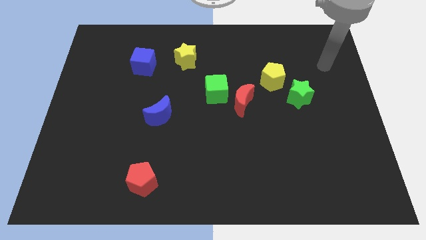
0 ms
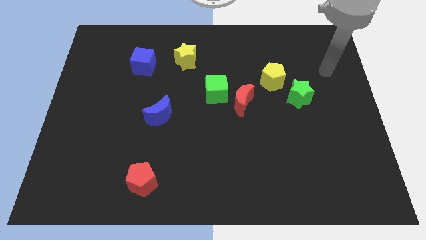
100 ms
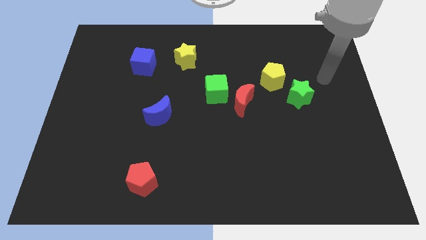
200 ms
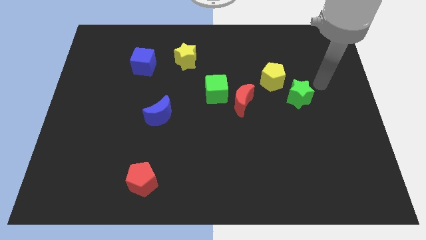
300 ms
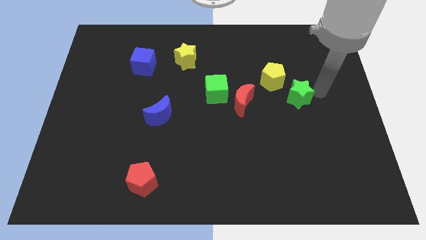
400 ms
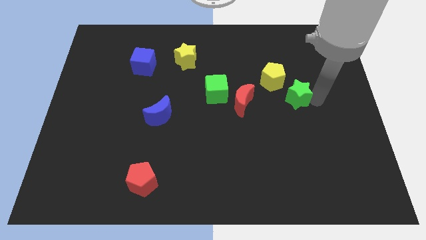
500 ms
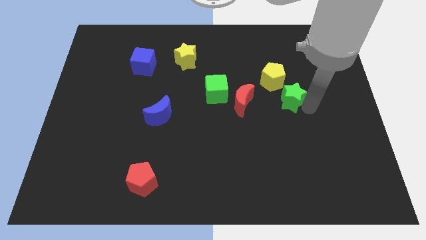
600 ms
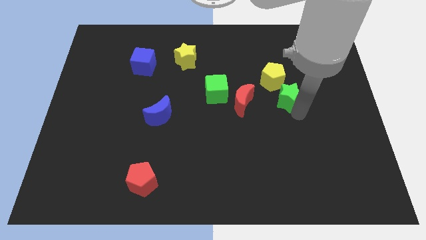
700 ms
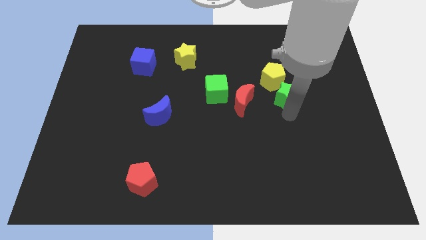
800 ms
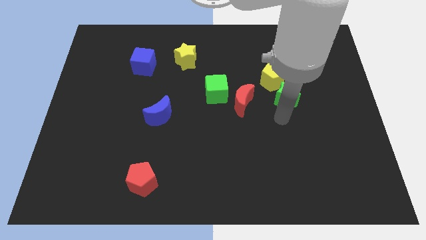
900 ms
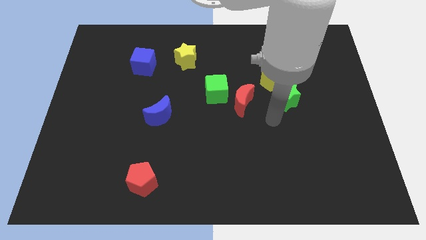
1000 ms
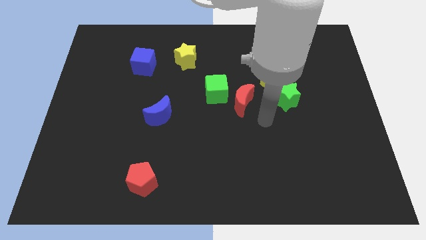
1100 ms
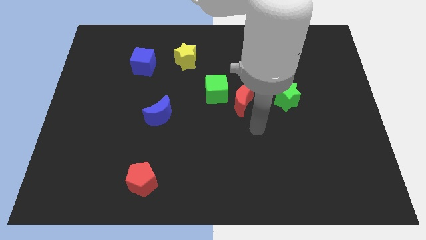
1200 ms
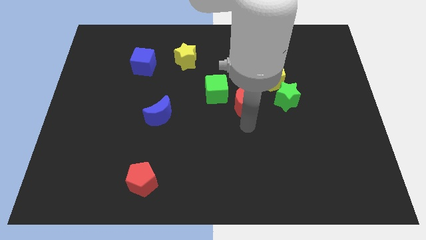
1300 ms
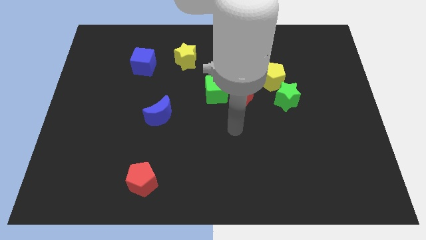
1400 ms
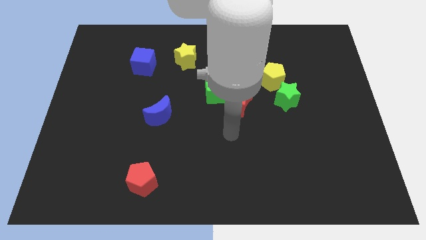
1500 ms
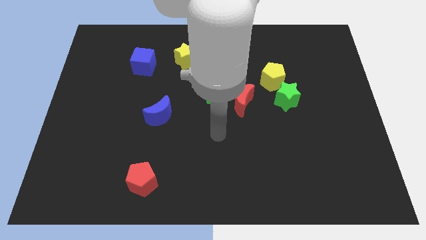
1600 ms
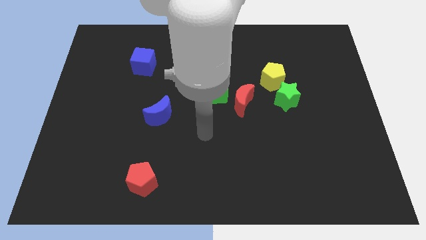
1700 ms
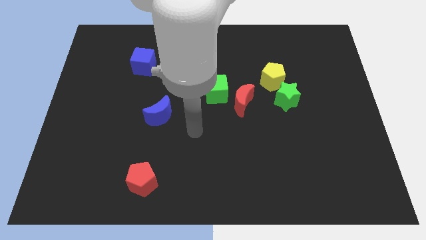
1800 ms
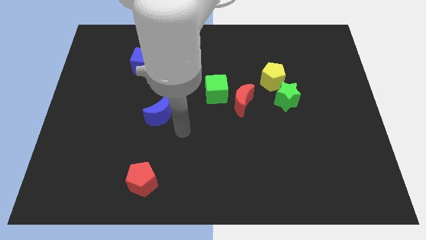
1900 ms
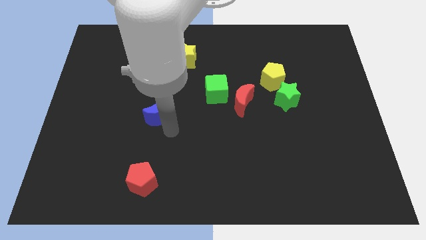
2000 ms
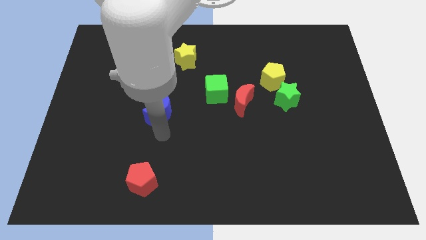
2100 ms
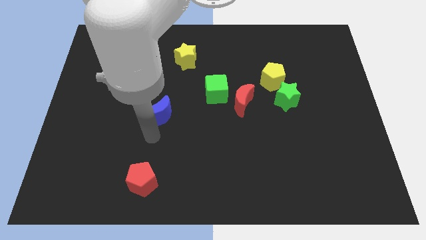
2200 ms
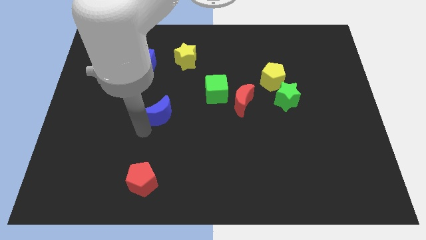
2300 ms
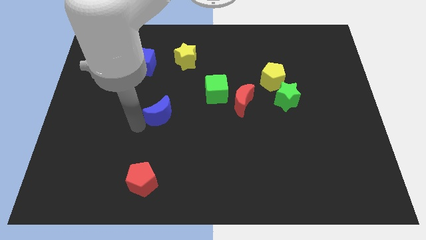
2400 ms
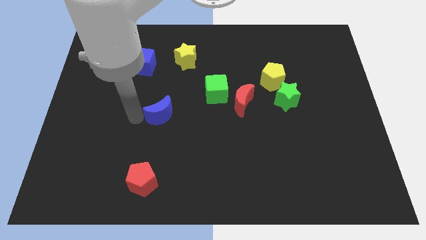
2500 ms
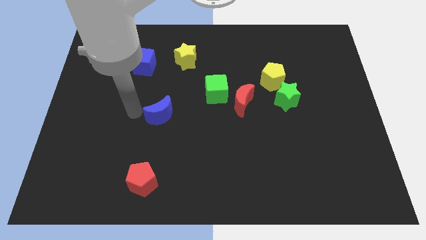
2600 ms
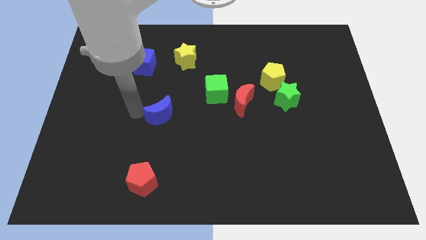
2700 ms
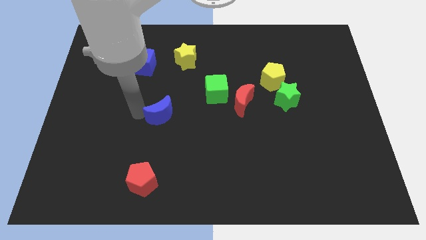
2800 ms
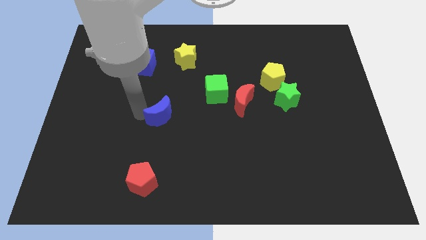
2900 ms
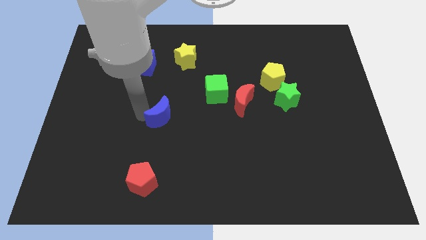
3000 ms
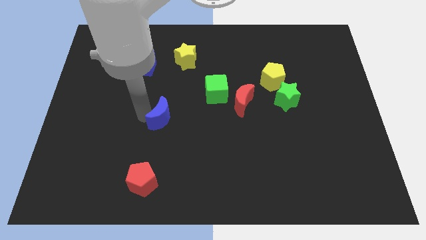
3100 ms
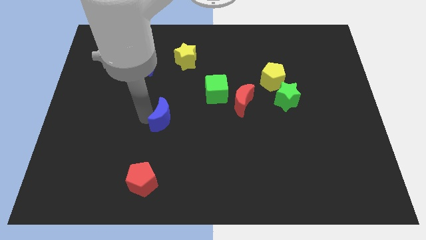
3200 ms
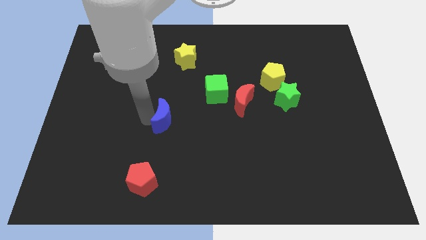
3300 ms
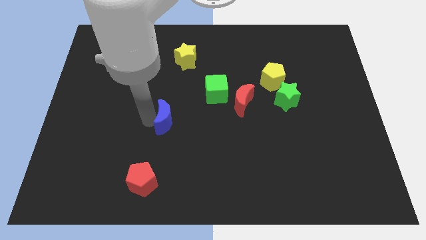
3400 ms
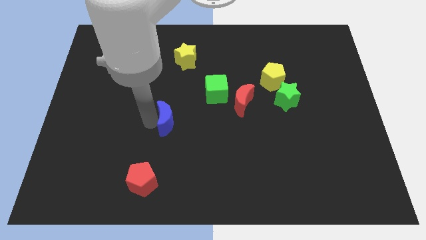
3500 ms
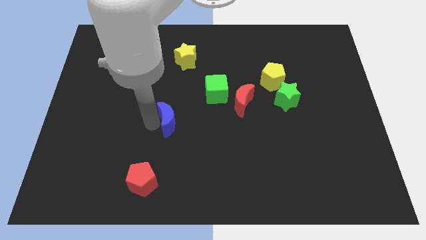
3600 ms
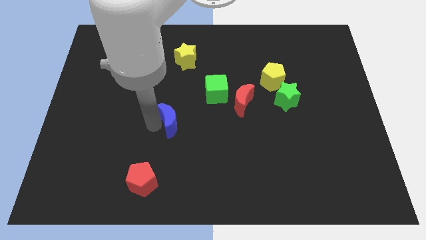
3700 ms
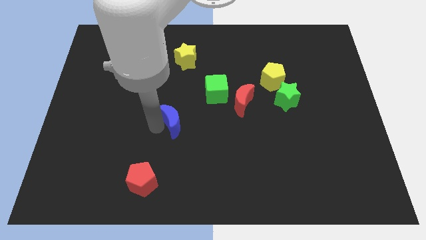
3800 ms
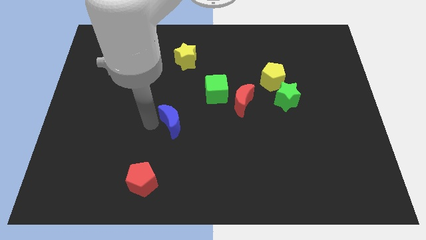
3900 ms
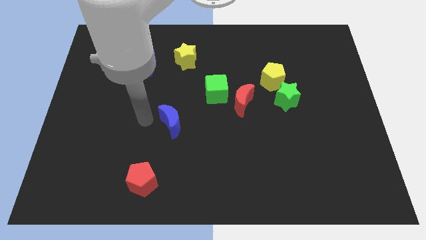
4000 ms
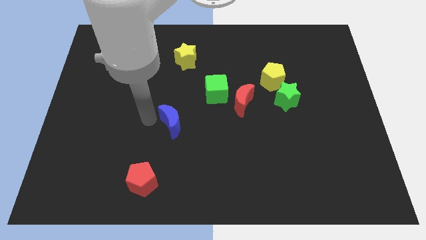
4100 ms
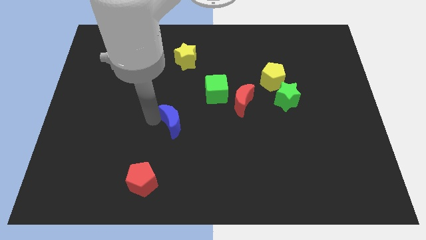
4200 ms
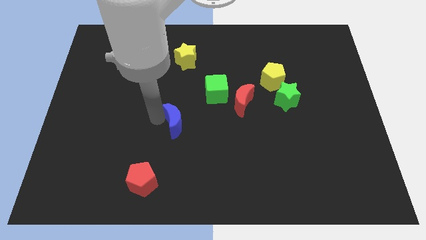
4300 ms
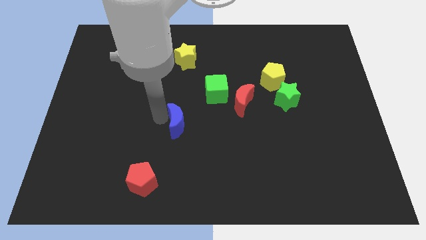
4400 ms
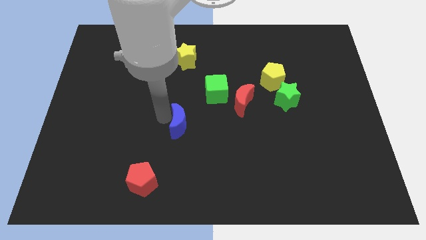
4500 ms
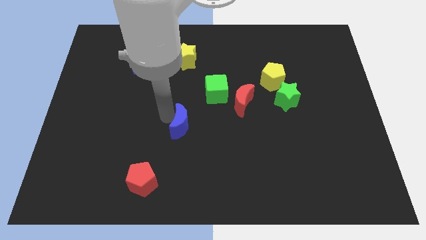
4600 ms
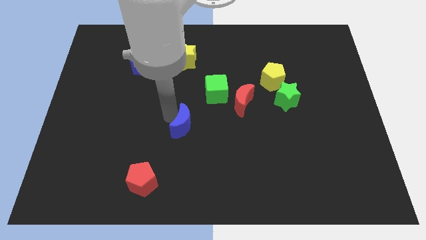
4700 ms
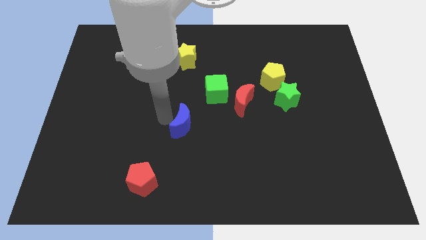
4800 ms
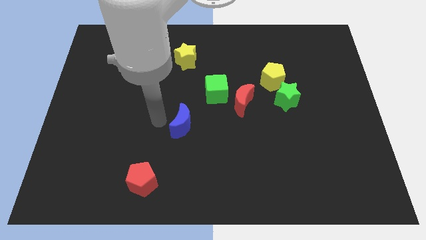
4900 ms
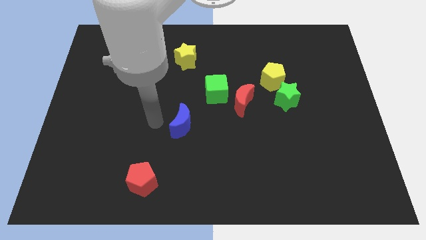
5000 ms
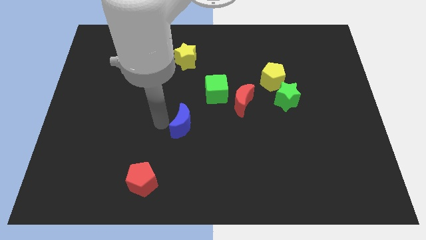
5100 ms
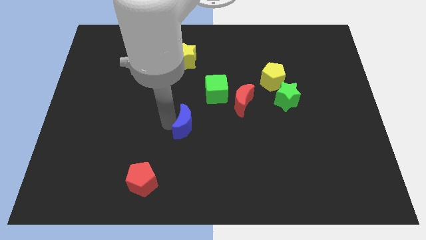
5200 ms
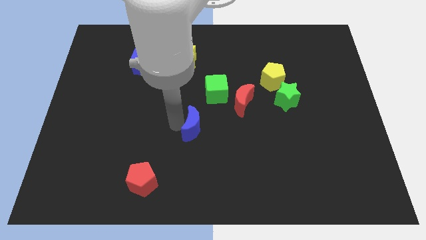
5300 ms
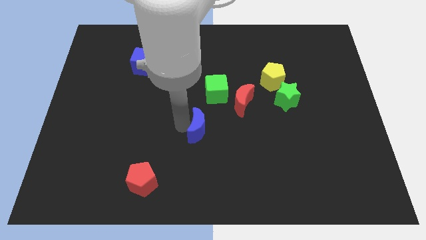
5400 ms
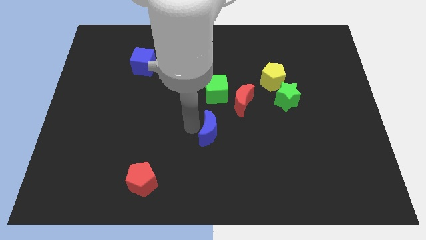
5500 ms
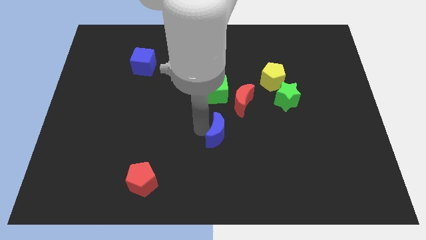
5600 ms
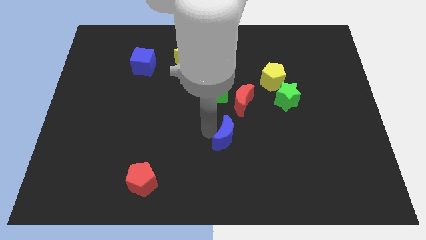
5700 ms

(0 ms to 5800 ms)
move the blue moon to the bottom side of the red moon

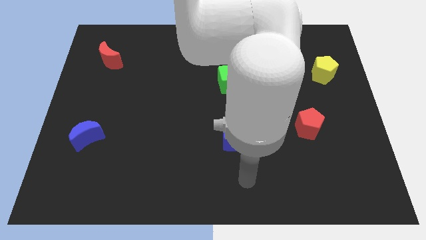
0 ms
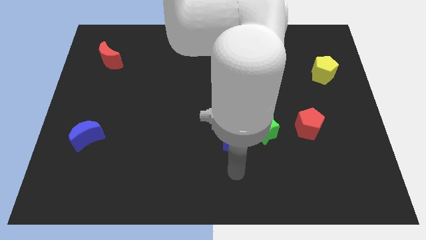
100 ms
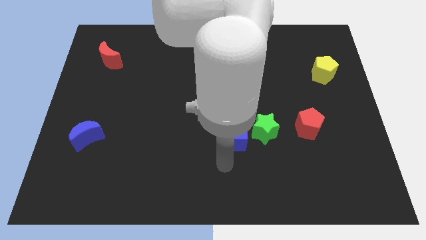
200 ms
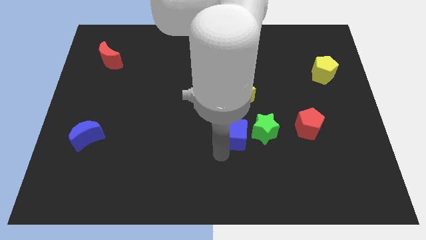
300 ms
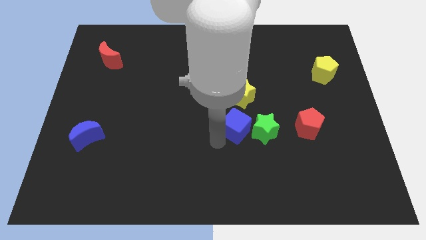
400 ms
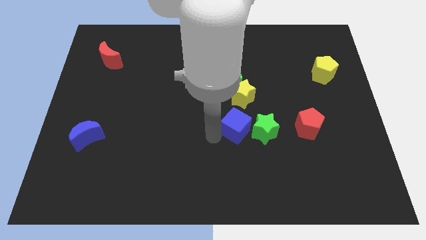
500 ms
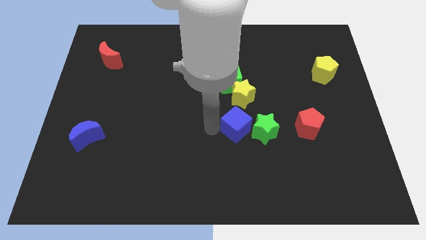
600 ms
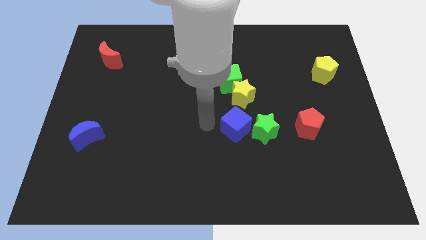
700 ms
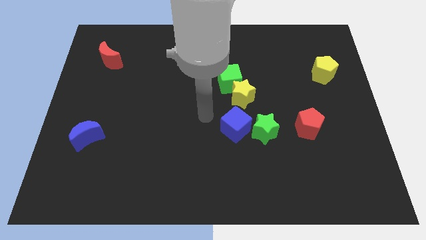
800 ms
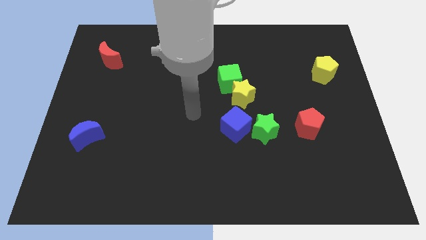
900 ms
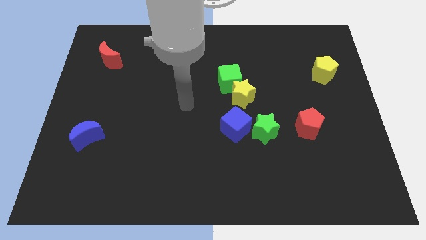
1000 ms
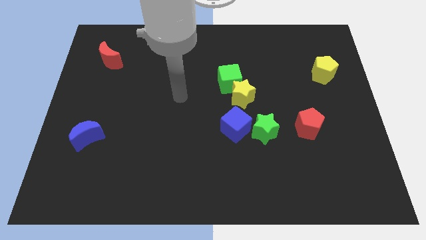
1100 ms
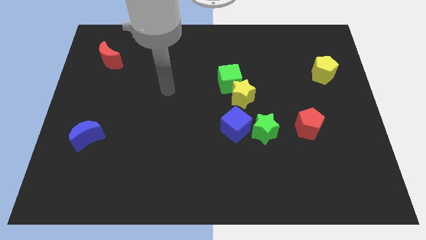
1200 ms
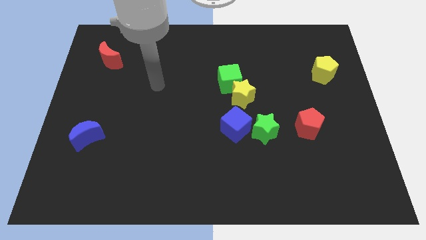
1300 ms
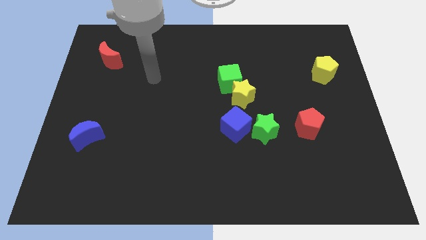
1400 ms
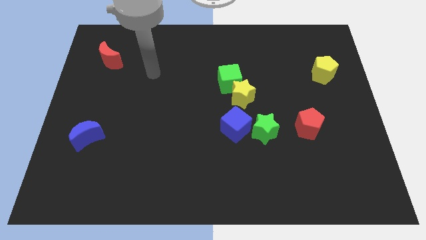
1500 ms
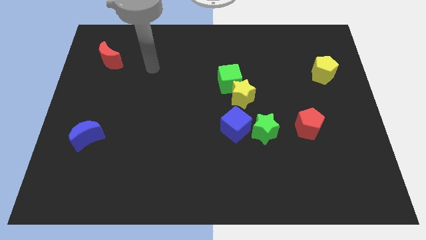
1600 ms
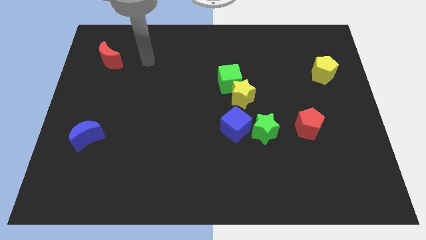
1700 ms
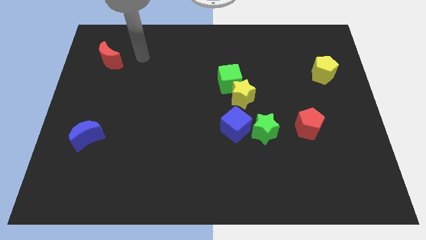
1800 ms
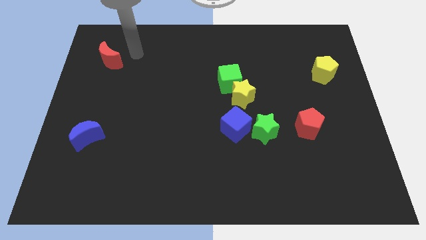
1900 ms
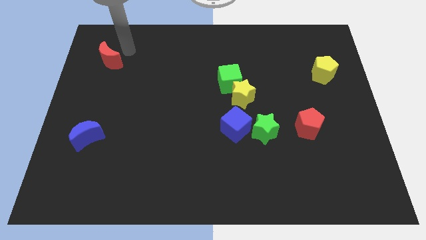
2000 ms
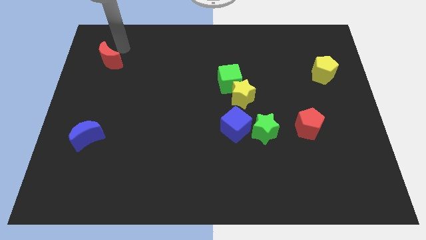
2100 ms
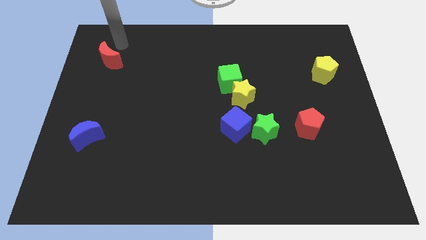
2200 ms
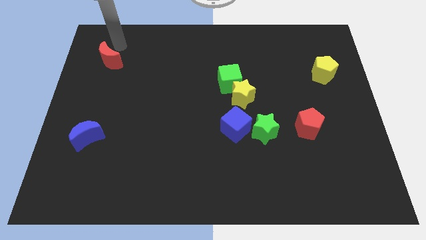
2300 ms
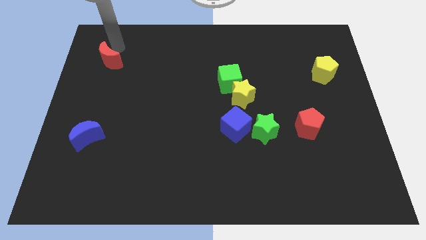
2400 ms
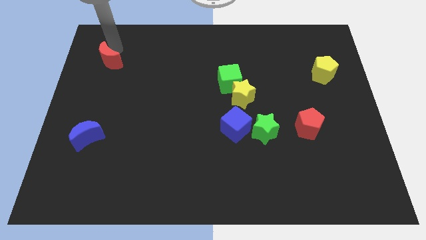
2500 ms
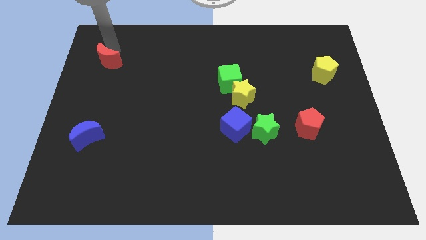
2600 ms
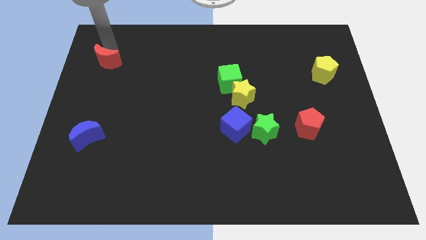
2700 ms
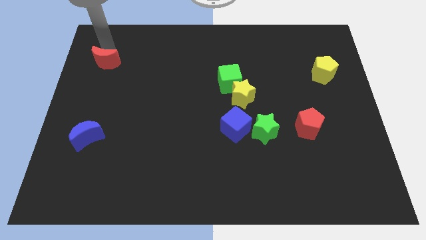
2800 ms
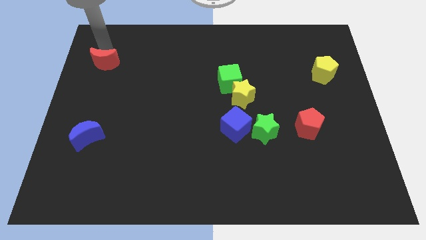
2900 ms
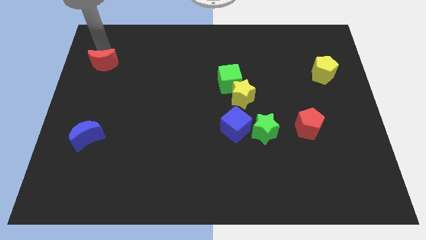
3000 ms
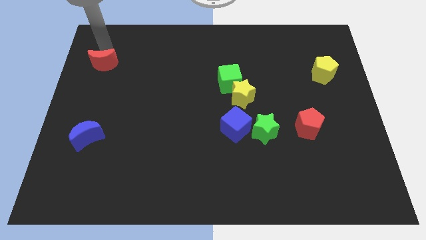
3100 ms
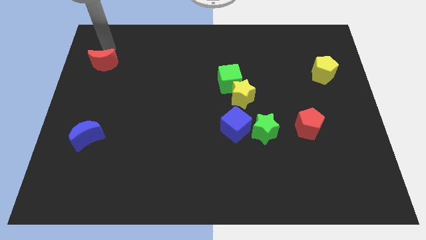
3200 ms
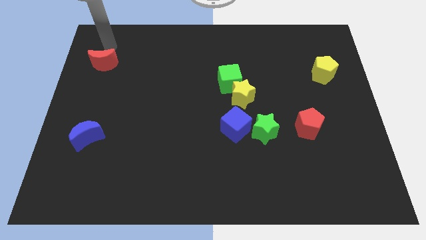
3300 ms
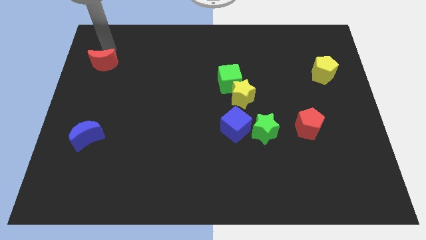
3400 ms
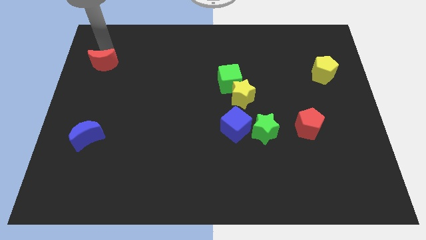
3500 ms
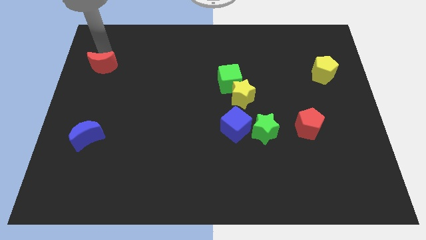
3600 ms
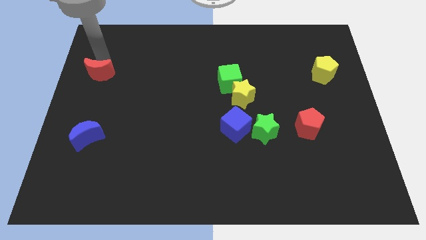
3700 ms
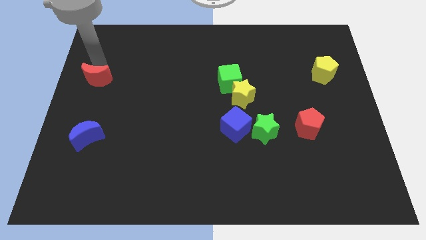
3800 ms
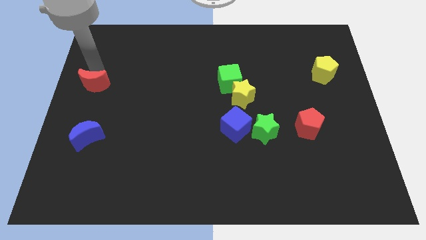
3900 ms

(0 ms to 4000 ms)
move the red moon to the top side of the blue moon
